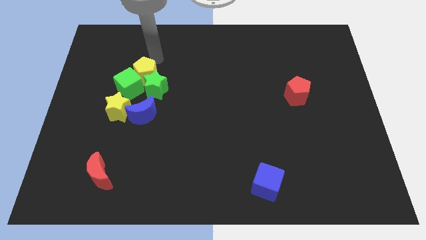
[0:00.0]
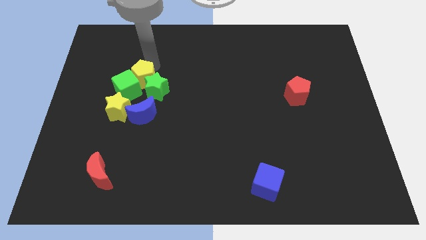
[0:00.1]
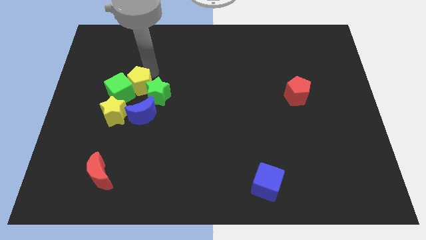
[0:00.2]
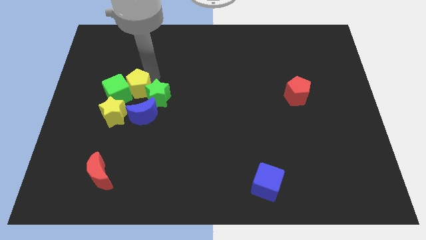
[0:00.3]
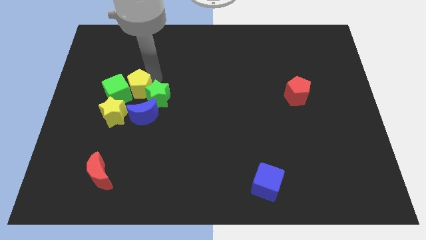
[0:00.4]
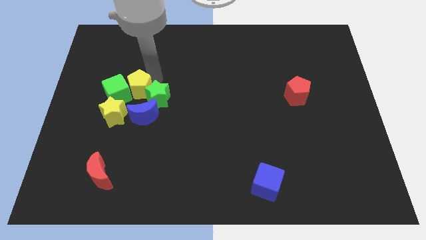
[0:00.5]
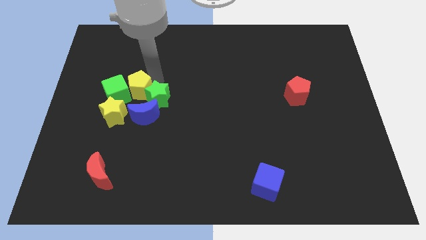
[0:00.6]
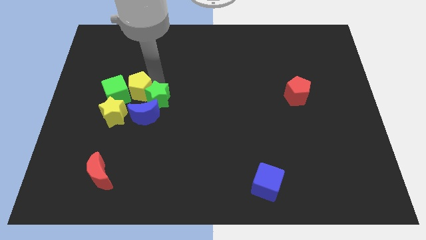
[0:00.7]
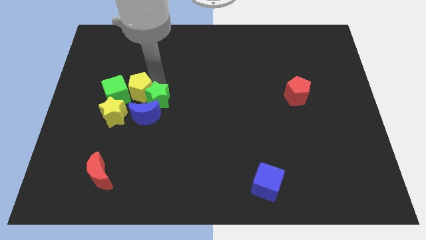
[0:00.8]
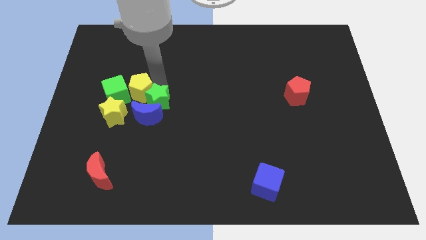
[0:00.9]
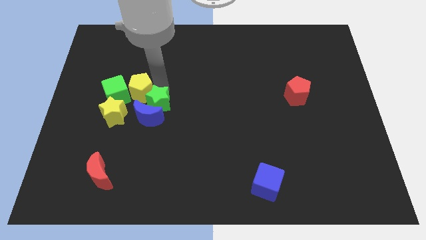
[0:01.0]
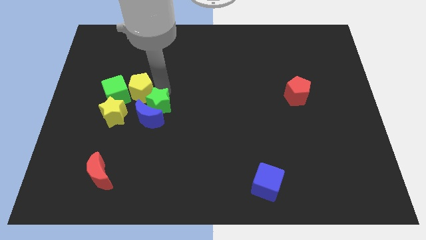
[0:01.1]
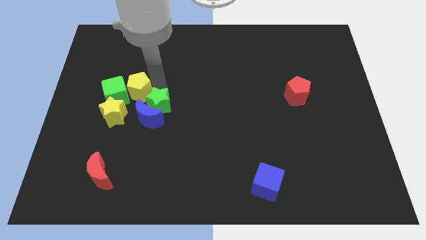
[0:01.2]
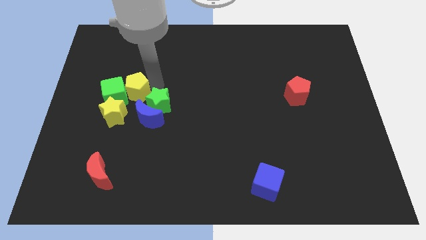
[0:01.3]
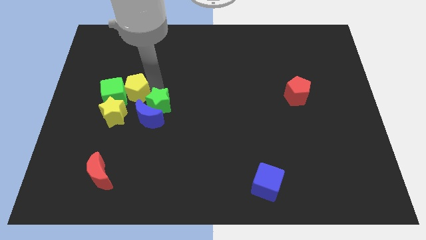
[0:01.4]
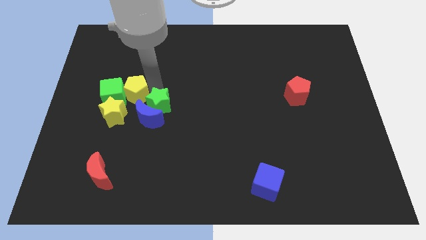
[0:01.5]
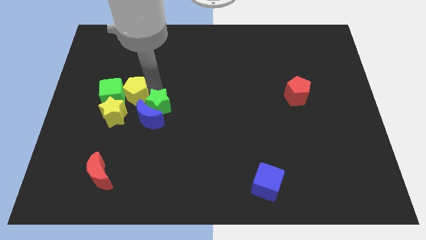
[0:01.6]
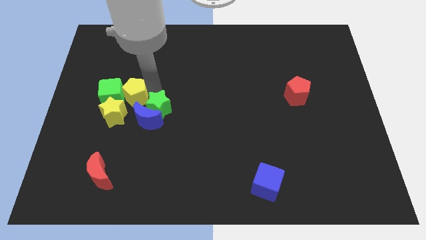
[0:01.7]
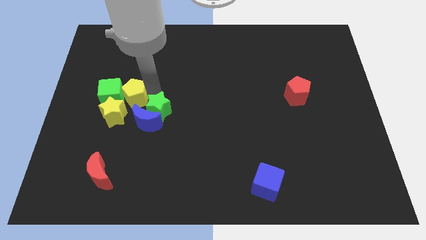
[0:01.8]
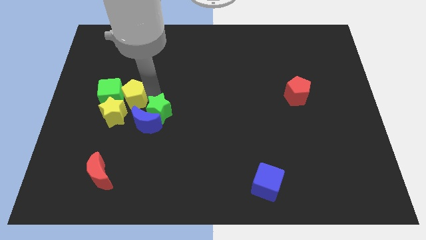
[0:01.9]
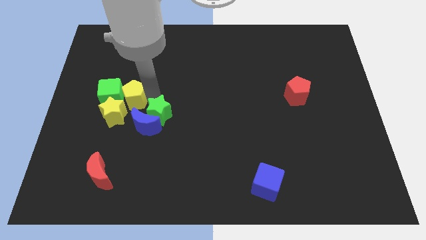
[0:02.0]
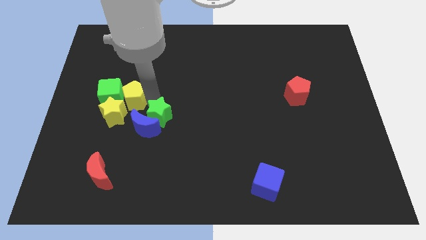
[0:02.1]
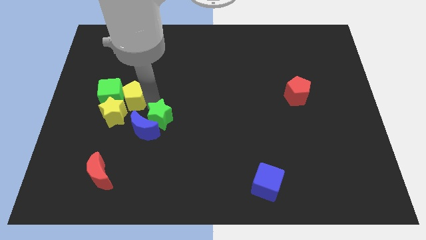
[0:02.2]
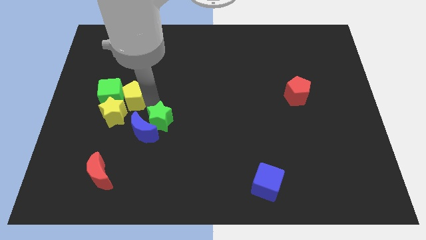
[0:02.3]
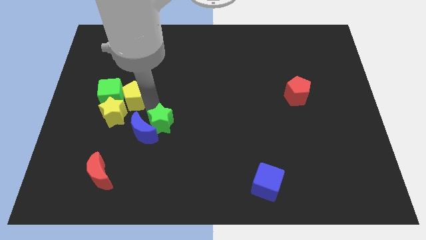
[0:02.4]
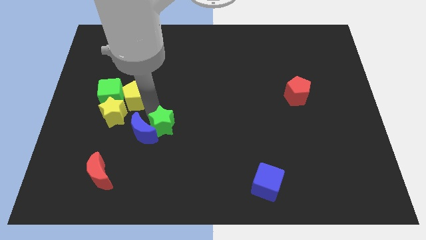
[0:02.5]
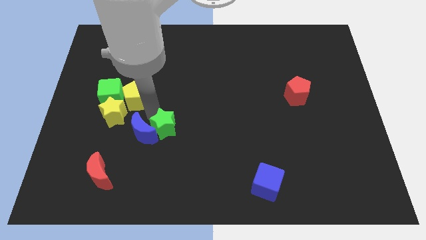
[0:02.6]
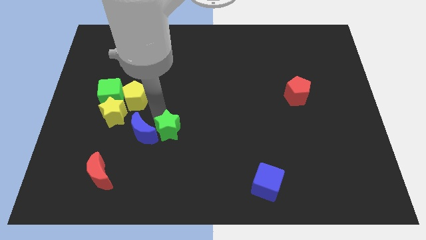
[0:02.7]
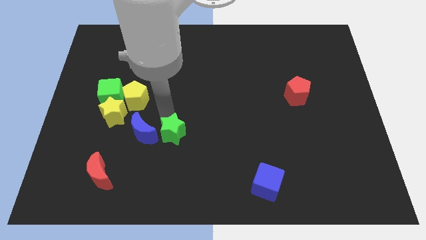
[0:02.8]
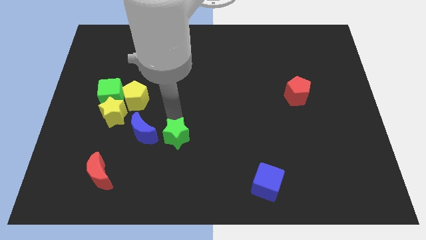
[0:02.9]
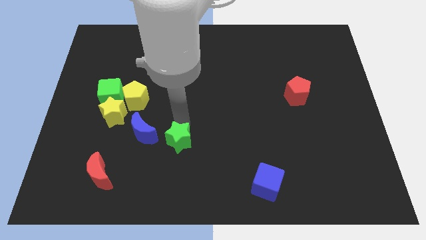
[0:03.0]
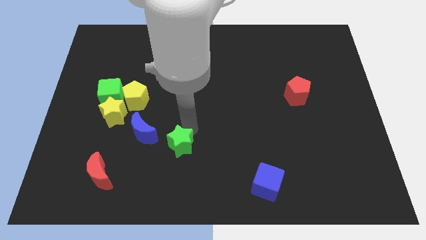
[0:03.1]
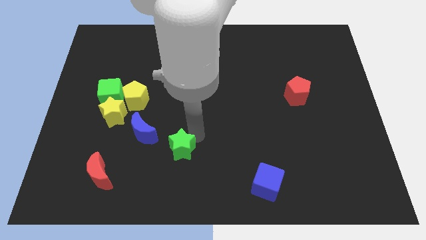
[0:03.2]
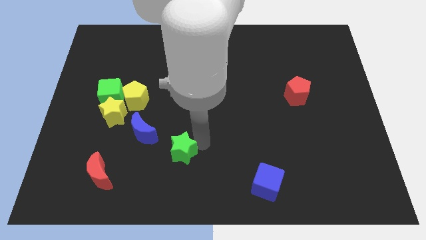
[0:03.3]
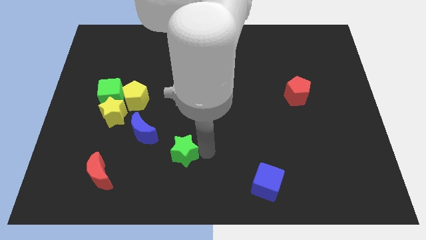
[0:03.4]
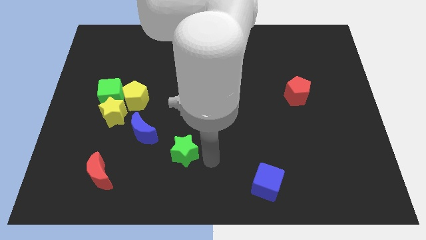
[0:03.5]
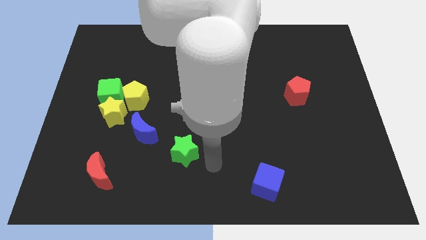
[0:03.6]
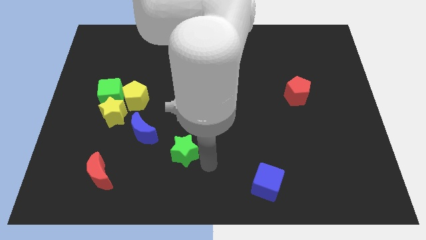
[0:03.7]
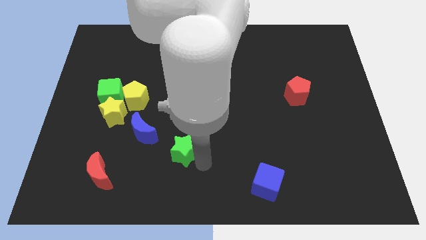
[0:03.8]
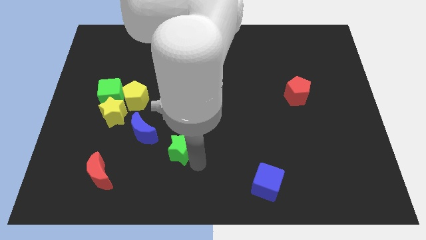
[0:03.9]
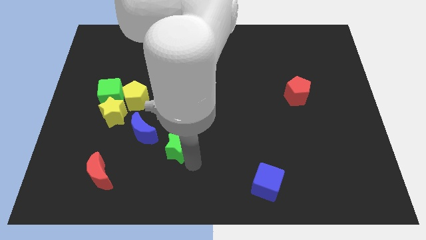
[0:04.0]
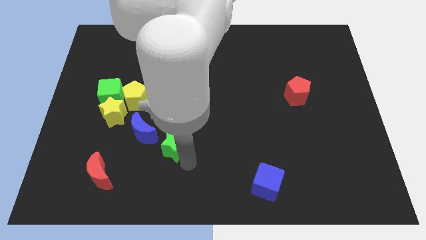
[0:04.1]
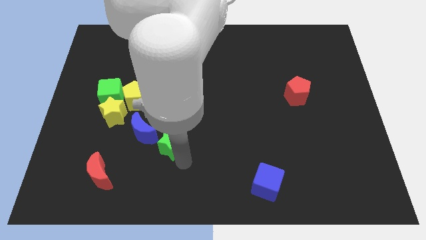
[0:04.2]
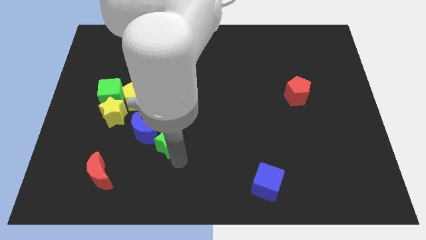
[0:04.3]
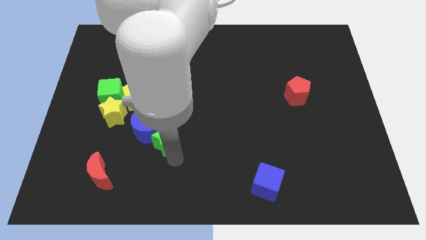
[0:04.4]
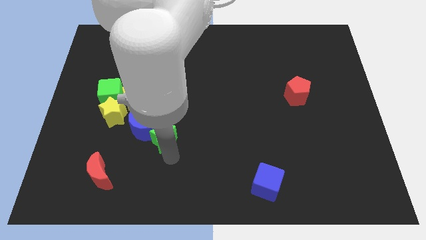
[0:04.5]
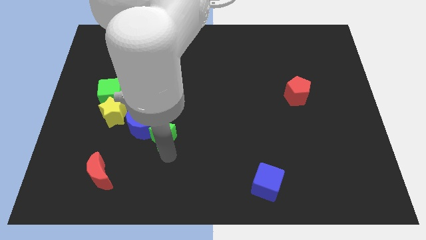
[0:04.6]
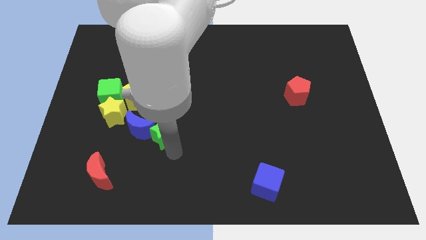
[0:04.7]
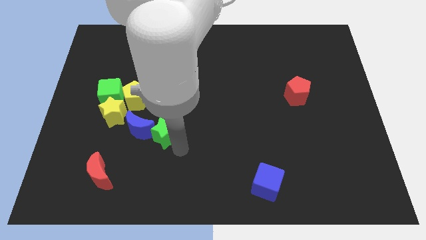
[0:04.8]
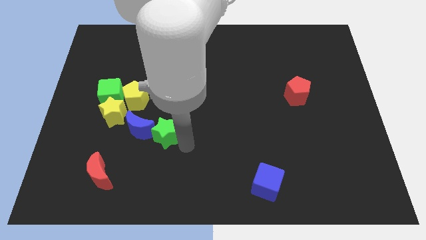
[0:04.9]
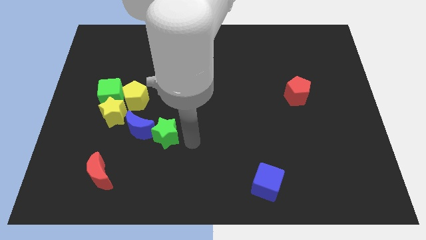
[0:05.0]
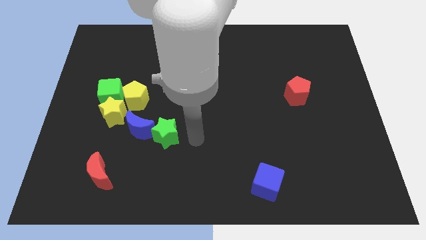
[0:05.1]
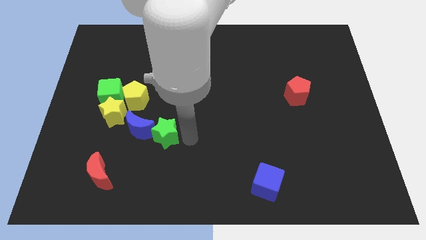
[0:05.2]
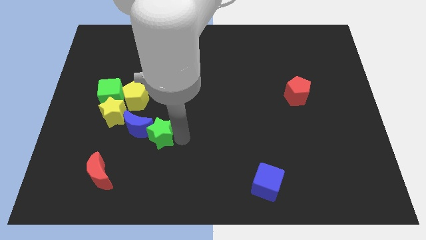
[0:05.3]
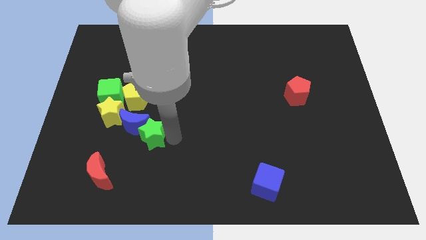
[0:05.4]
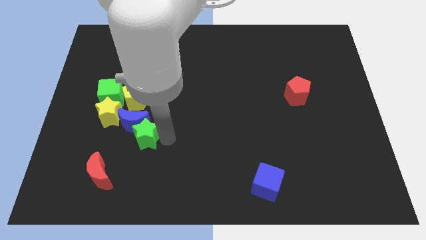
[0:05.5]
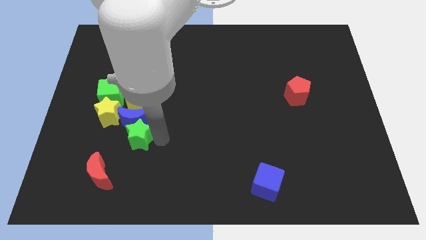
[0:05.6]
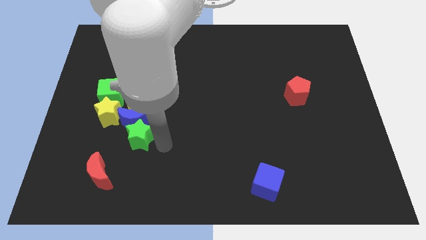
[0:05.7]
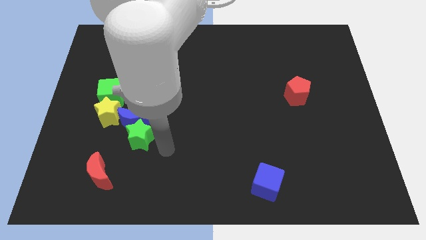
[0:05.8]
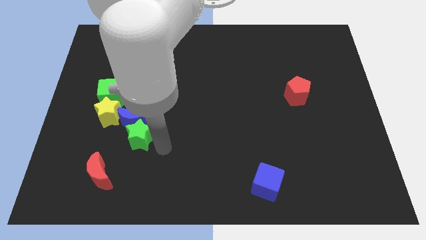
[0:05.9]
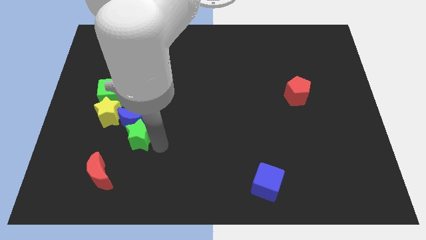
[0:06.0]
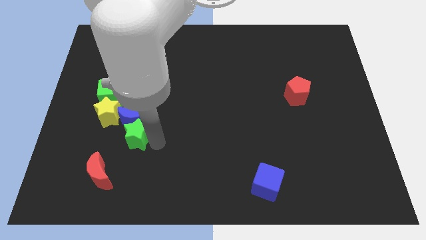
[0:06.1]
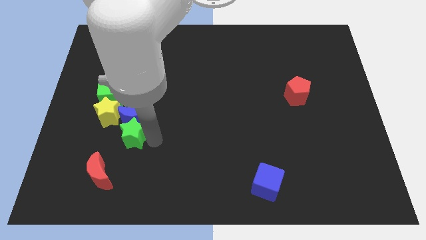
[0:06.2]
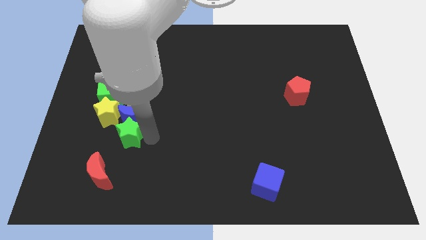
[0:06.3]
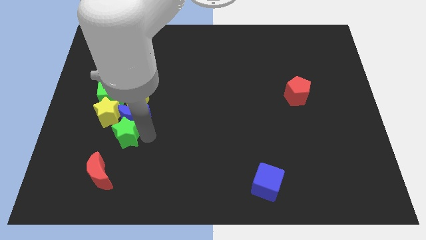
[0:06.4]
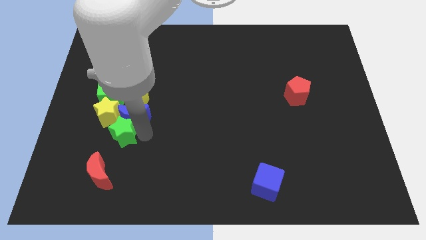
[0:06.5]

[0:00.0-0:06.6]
push the green star to the bottom of the green cube
